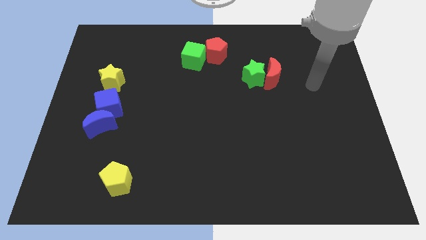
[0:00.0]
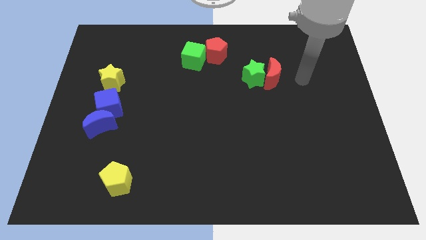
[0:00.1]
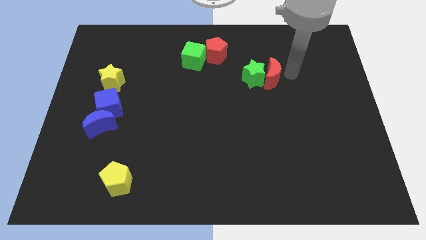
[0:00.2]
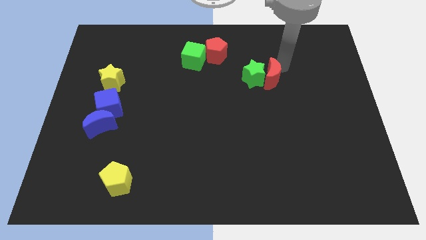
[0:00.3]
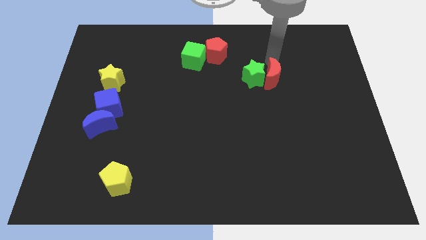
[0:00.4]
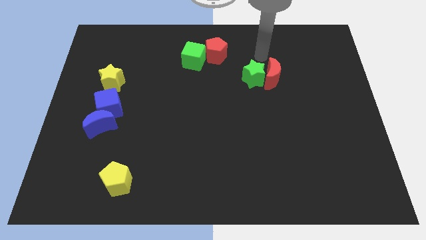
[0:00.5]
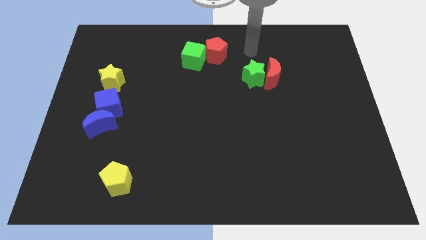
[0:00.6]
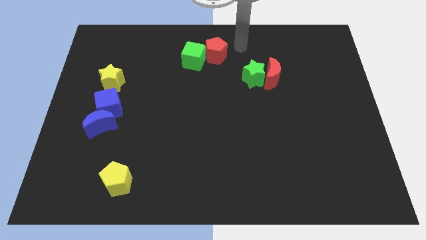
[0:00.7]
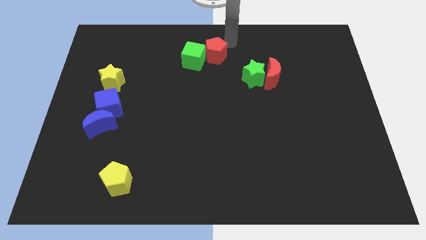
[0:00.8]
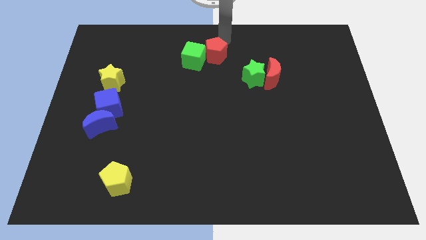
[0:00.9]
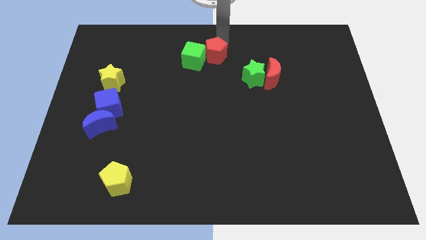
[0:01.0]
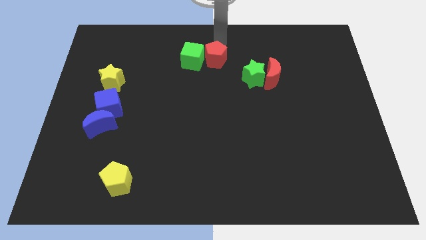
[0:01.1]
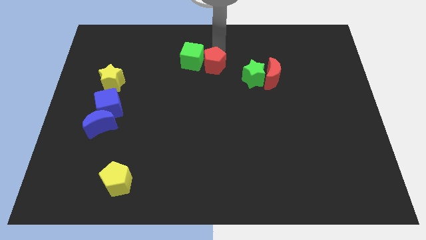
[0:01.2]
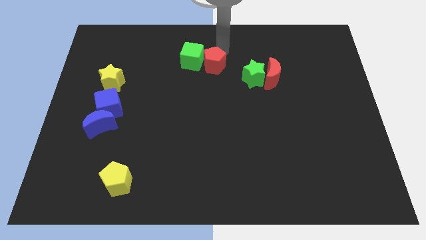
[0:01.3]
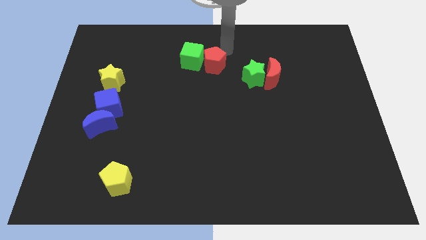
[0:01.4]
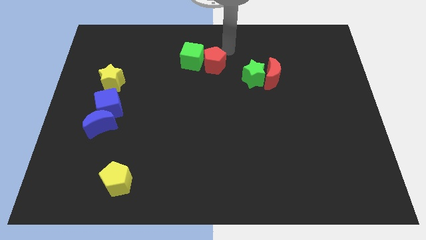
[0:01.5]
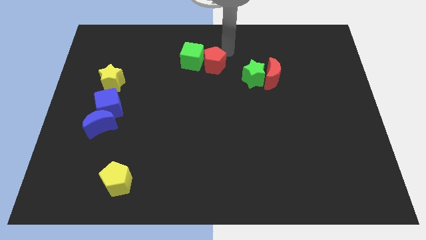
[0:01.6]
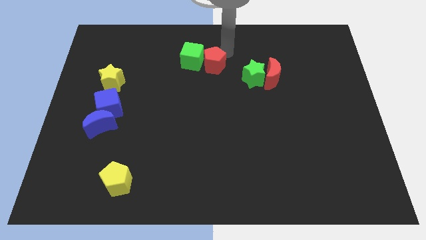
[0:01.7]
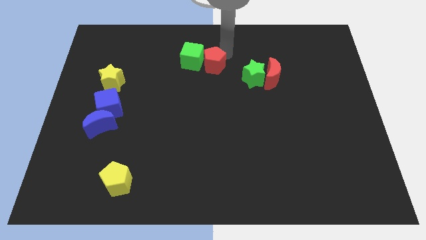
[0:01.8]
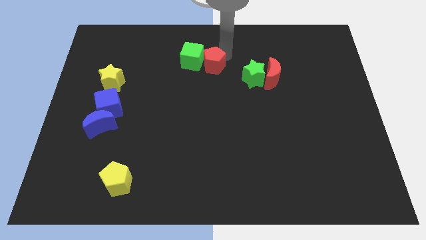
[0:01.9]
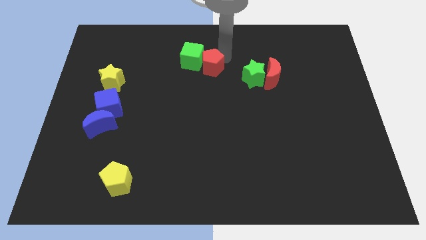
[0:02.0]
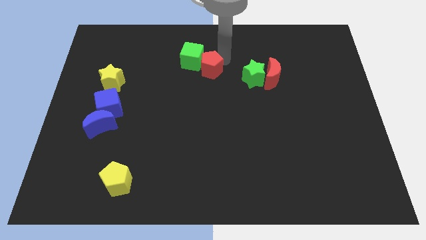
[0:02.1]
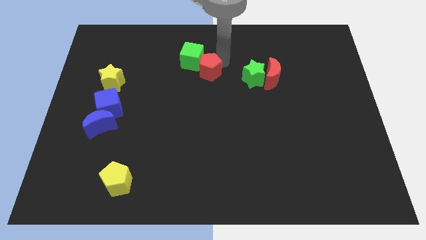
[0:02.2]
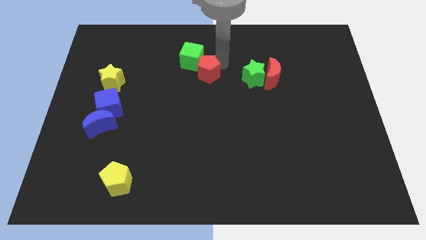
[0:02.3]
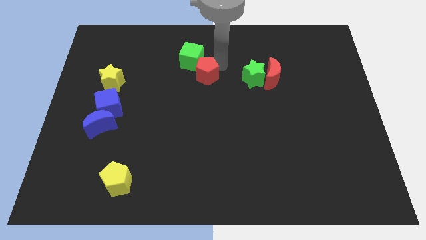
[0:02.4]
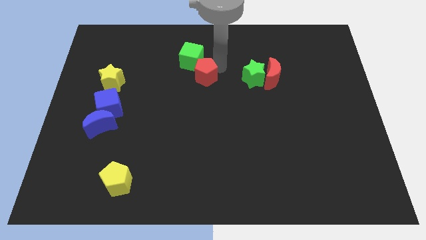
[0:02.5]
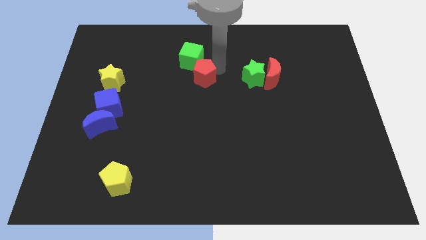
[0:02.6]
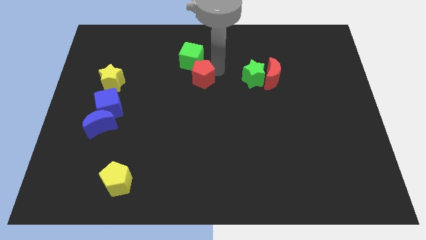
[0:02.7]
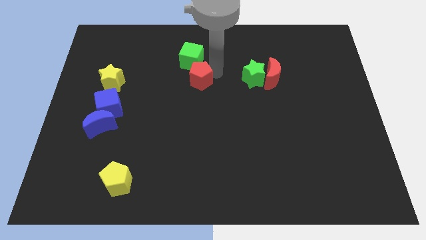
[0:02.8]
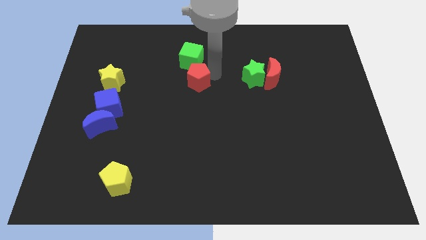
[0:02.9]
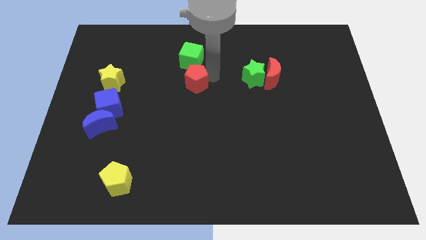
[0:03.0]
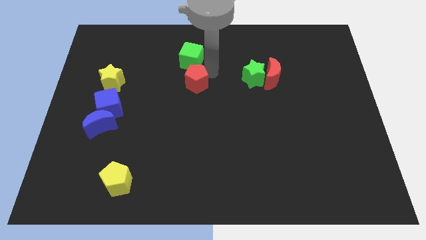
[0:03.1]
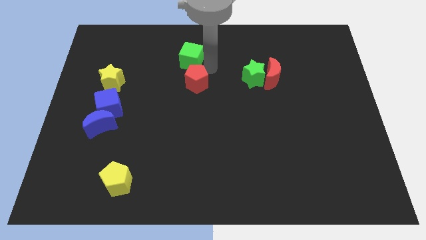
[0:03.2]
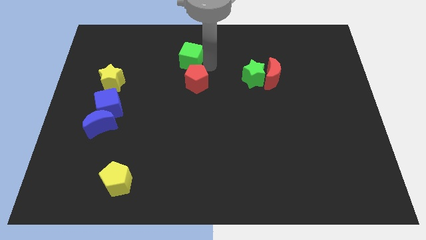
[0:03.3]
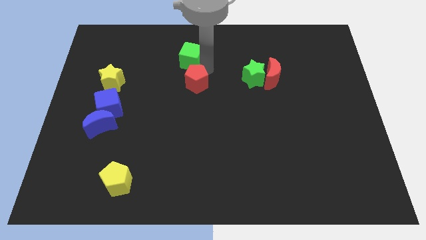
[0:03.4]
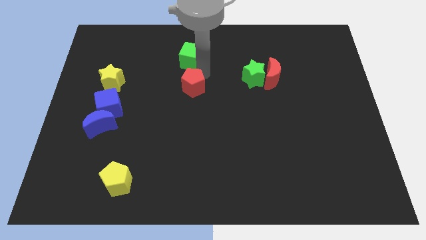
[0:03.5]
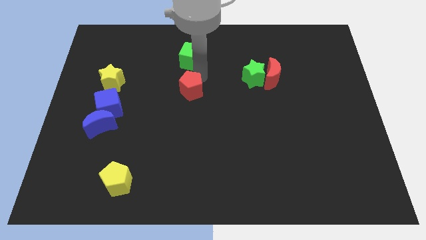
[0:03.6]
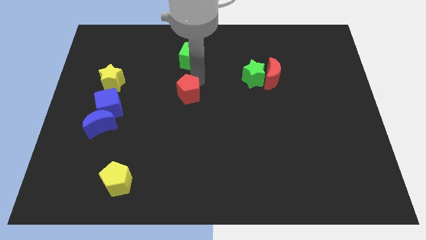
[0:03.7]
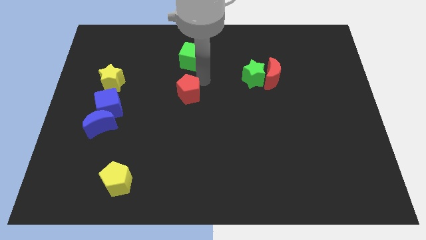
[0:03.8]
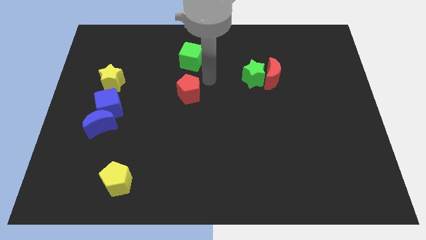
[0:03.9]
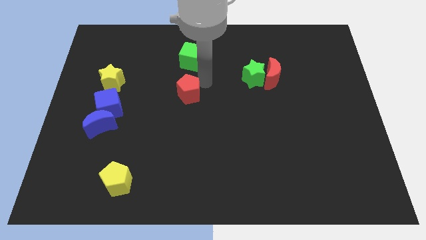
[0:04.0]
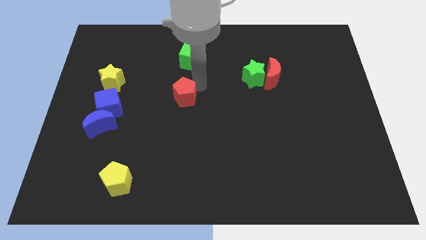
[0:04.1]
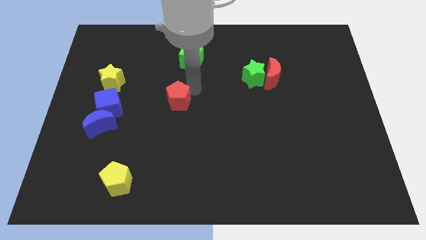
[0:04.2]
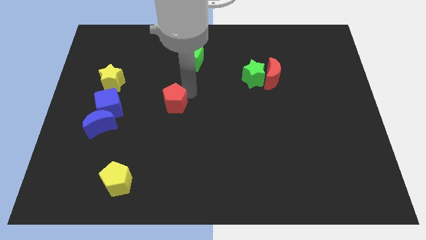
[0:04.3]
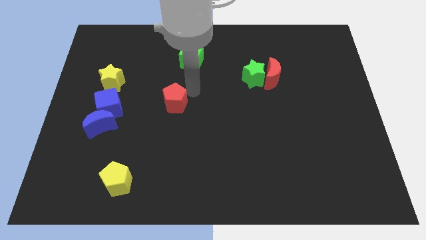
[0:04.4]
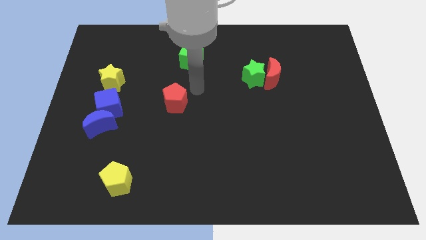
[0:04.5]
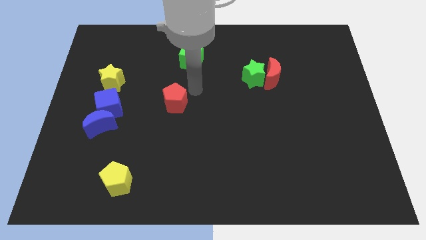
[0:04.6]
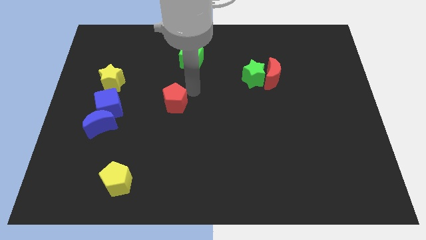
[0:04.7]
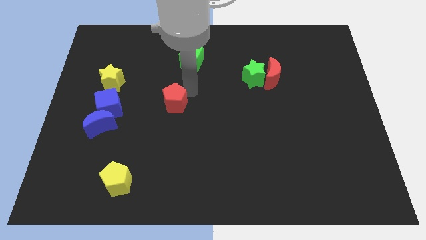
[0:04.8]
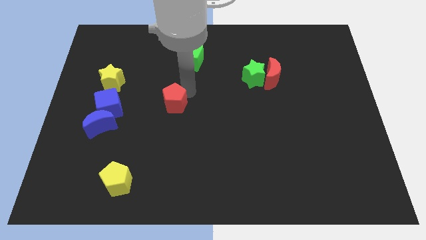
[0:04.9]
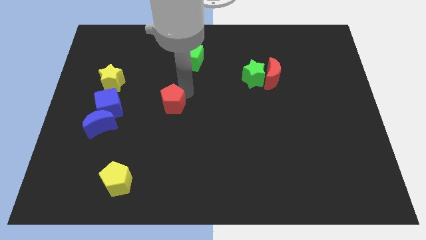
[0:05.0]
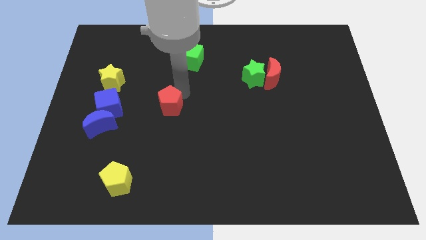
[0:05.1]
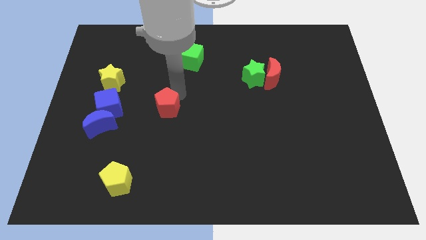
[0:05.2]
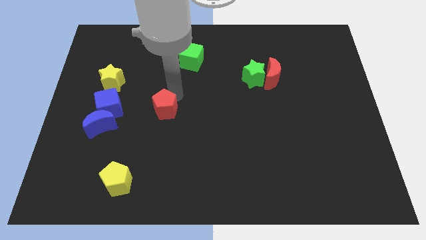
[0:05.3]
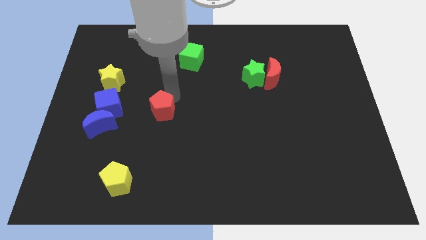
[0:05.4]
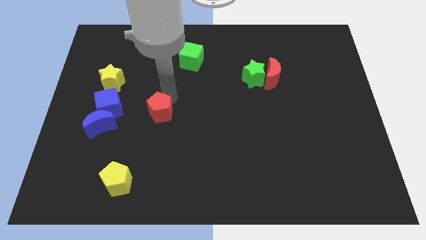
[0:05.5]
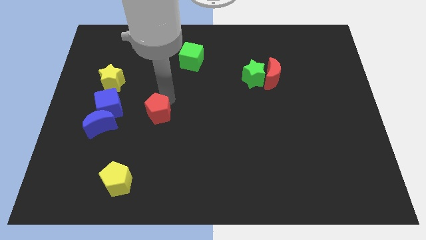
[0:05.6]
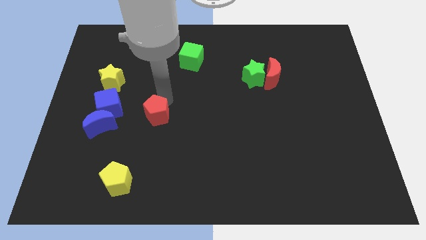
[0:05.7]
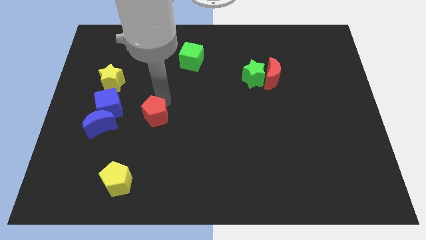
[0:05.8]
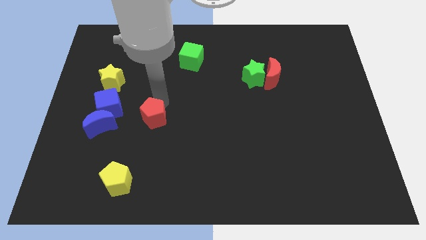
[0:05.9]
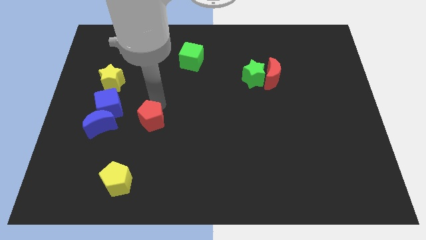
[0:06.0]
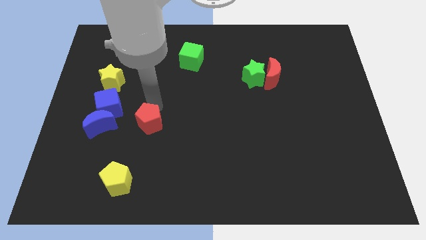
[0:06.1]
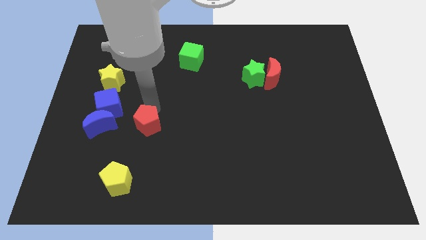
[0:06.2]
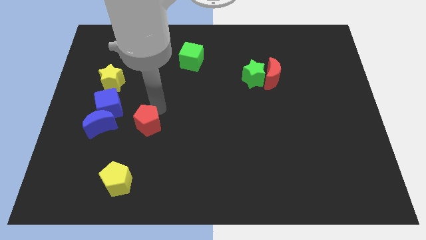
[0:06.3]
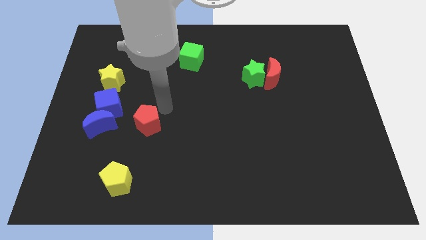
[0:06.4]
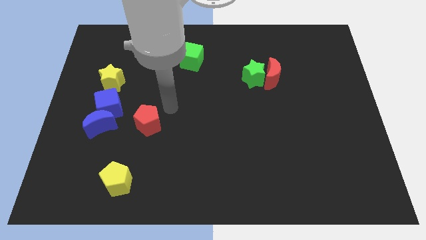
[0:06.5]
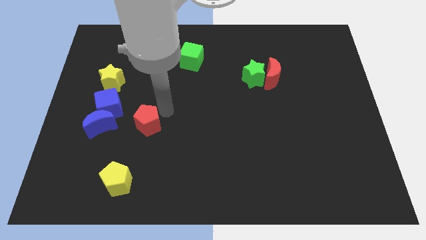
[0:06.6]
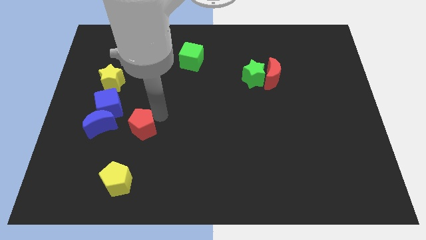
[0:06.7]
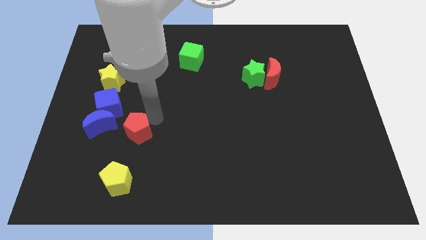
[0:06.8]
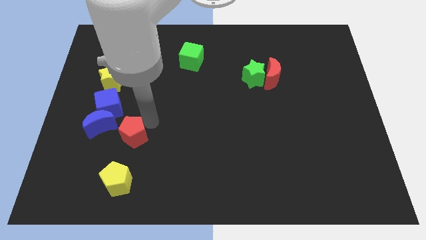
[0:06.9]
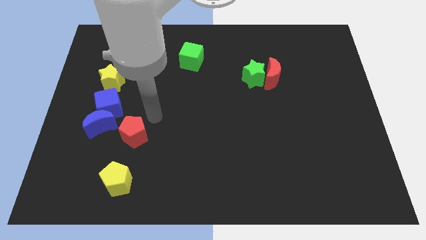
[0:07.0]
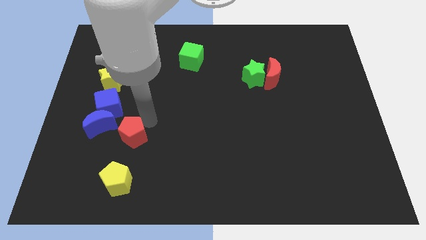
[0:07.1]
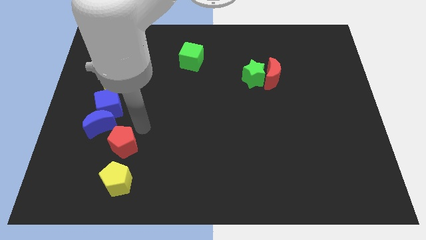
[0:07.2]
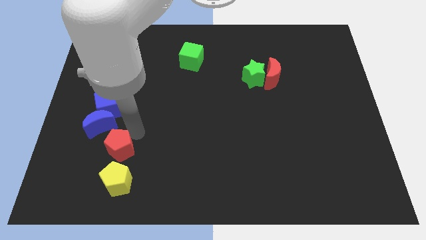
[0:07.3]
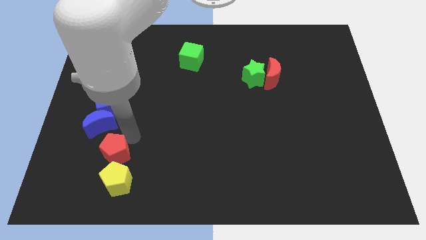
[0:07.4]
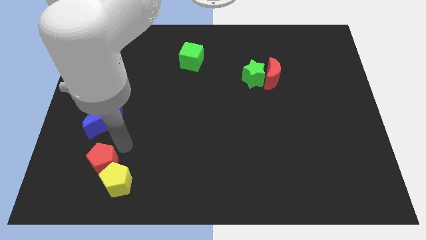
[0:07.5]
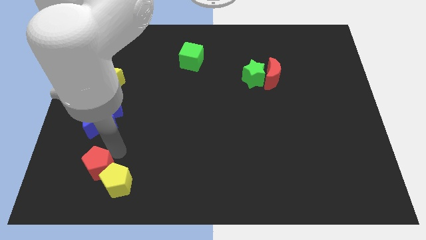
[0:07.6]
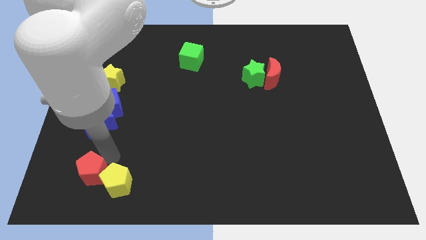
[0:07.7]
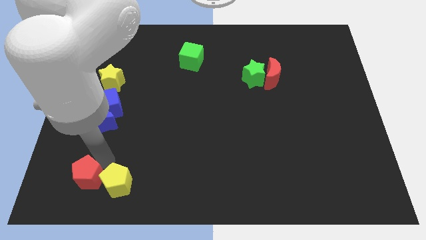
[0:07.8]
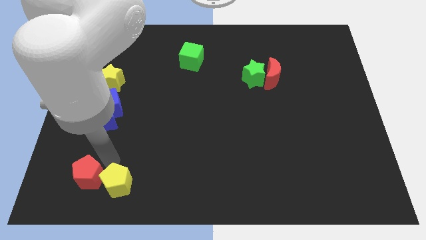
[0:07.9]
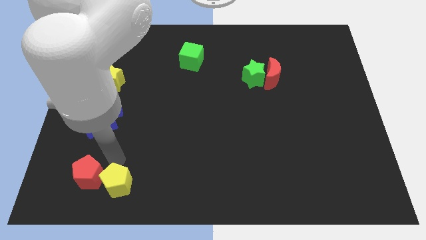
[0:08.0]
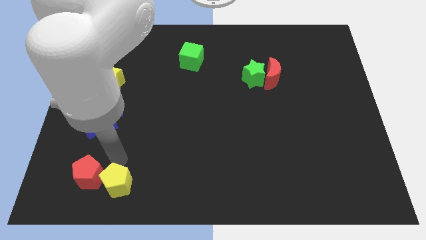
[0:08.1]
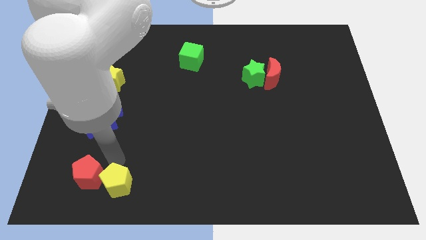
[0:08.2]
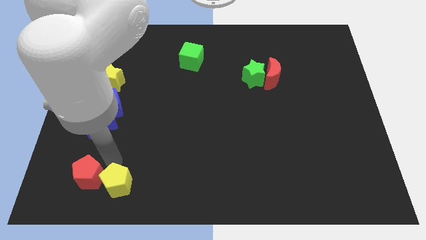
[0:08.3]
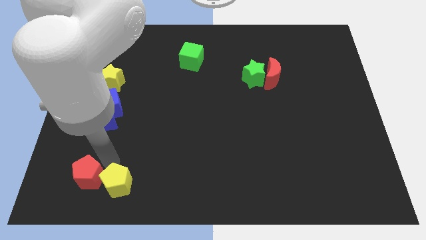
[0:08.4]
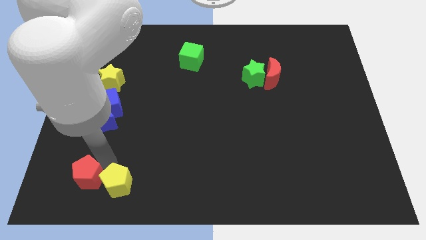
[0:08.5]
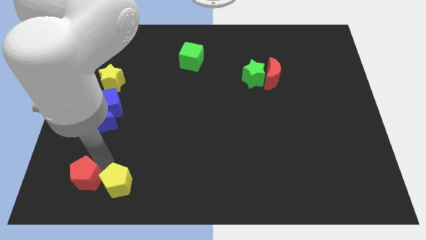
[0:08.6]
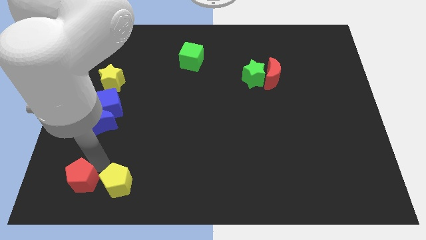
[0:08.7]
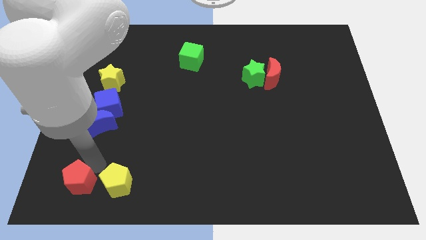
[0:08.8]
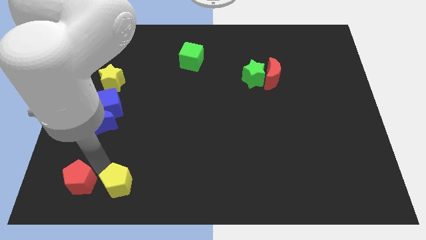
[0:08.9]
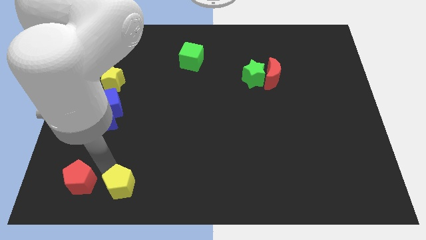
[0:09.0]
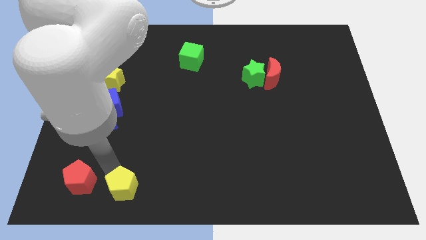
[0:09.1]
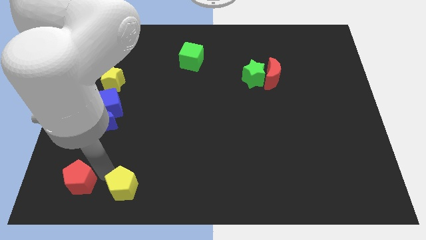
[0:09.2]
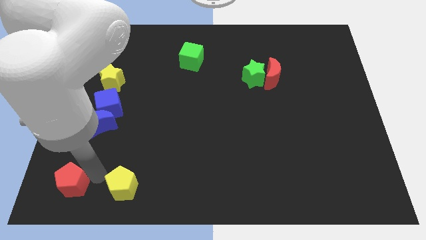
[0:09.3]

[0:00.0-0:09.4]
put the red pentagon to the bottom left
